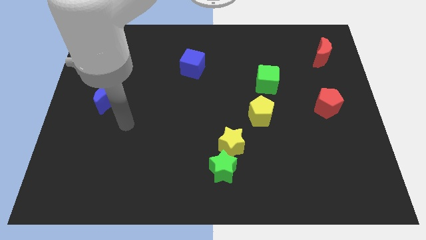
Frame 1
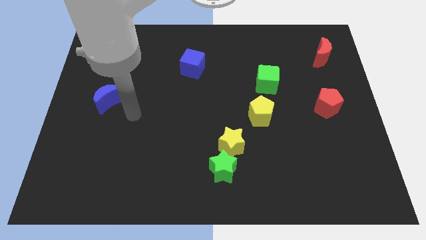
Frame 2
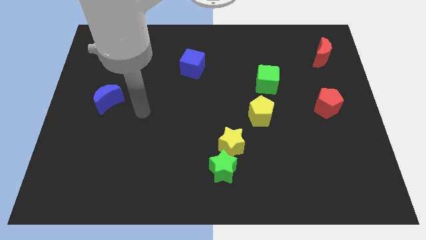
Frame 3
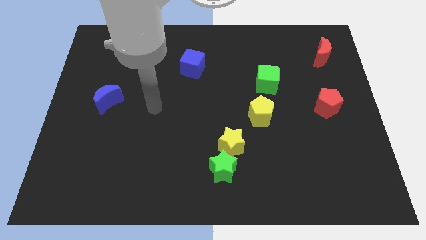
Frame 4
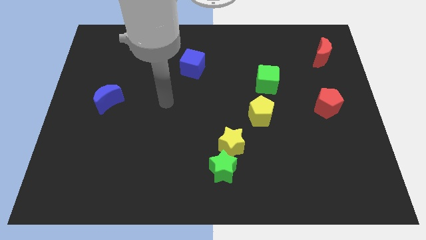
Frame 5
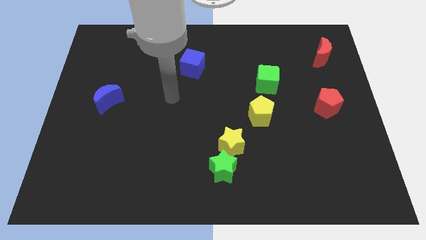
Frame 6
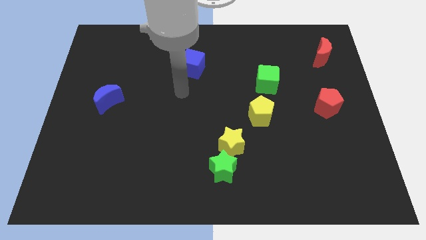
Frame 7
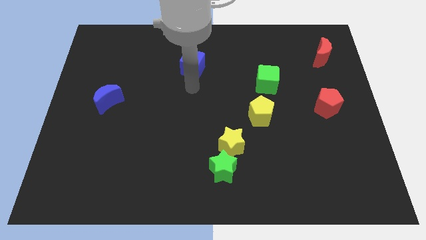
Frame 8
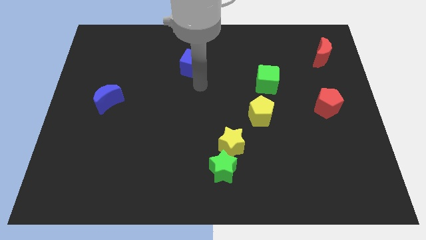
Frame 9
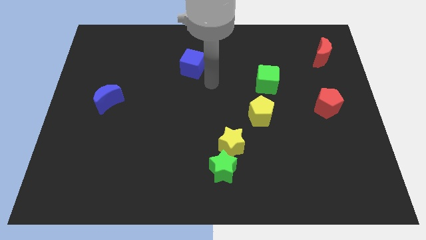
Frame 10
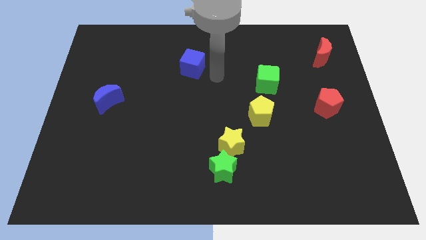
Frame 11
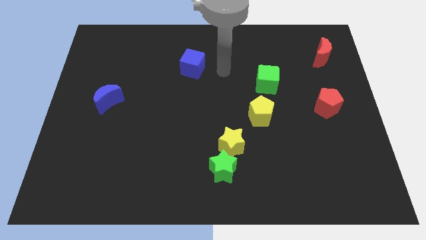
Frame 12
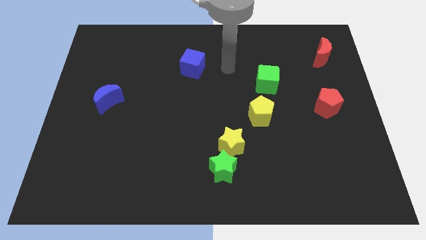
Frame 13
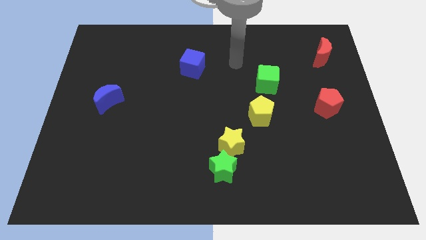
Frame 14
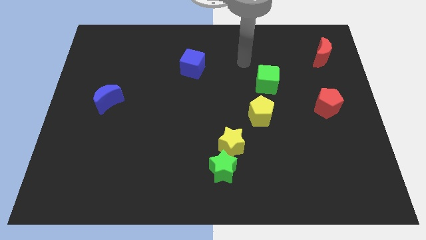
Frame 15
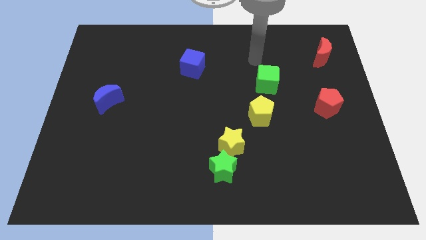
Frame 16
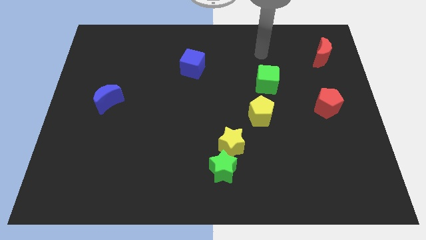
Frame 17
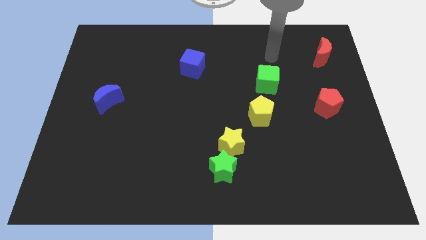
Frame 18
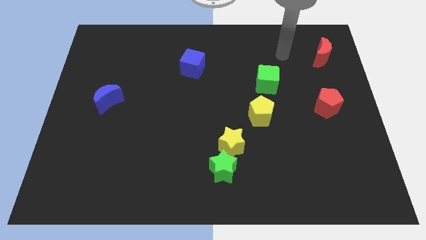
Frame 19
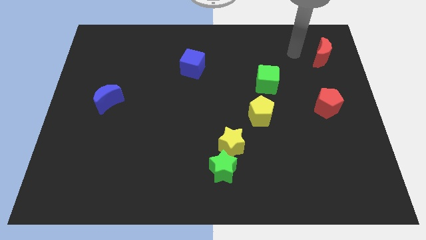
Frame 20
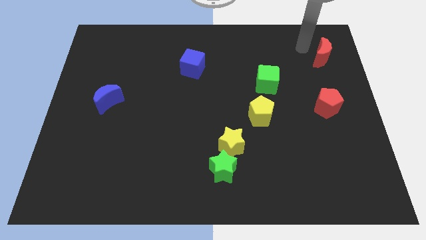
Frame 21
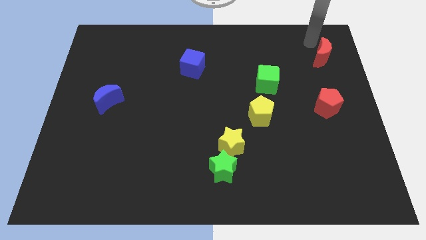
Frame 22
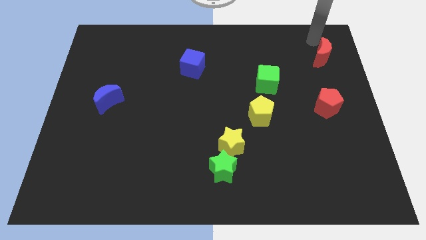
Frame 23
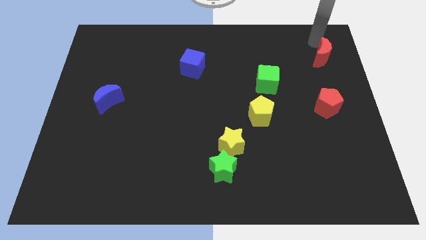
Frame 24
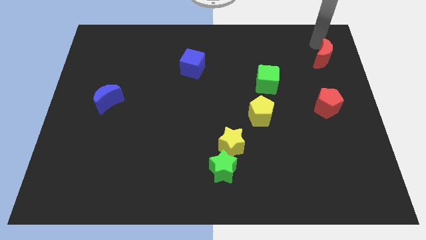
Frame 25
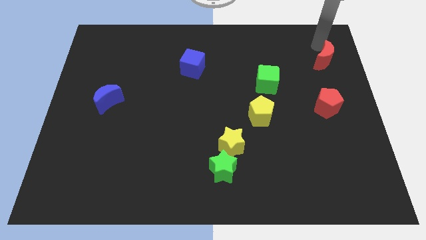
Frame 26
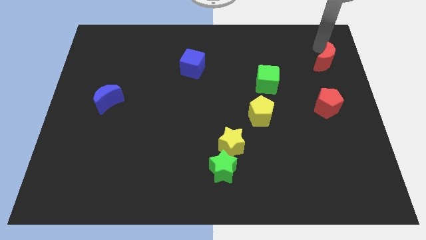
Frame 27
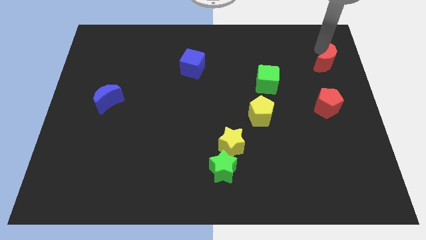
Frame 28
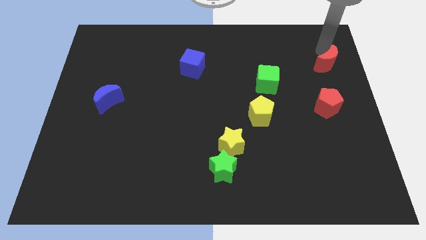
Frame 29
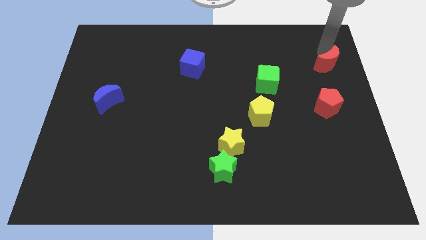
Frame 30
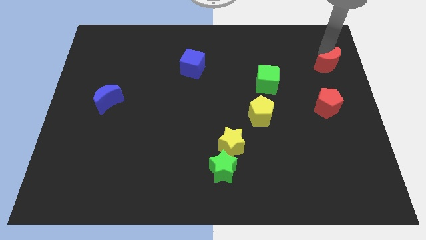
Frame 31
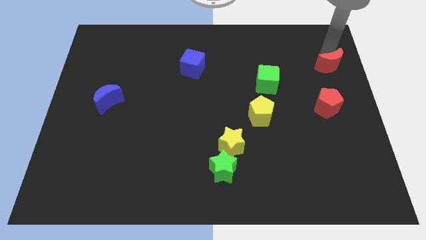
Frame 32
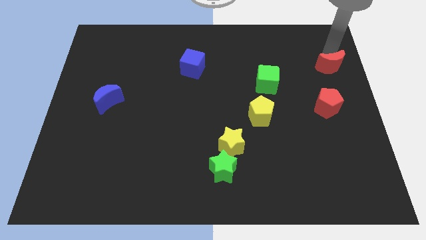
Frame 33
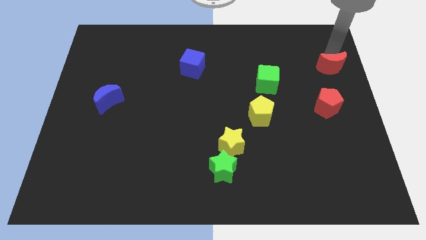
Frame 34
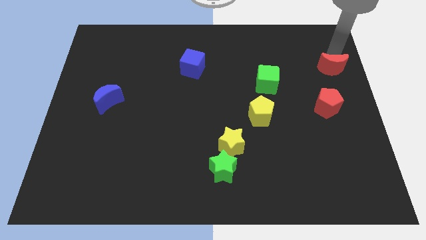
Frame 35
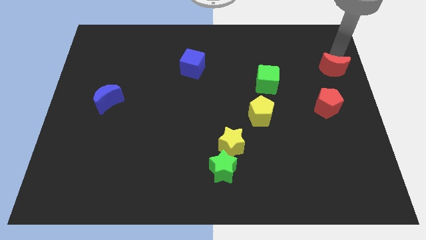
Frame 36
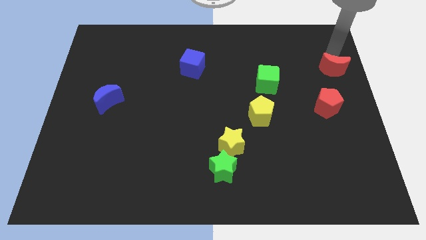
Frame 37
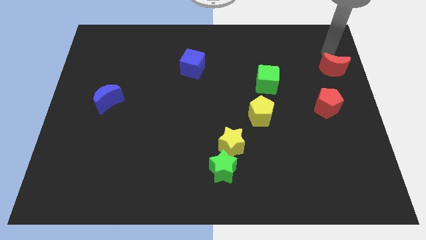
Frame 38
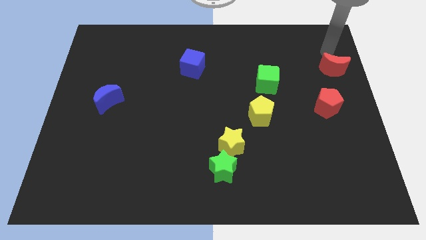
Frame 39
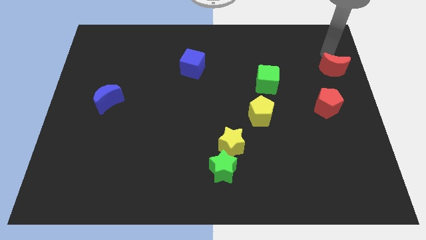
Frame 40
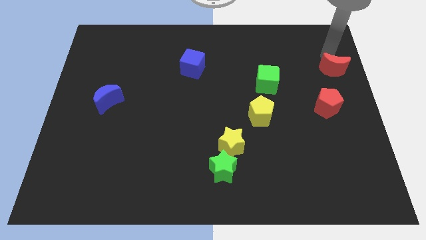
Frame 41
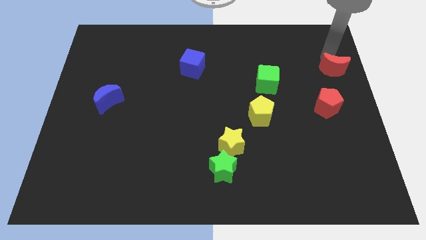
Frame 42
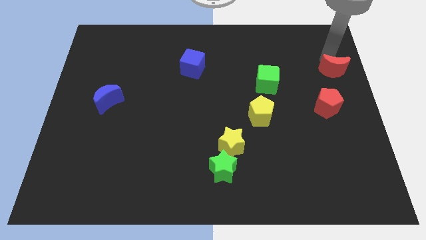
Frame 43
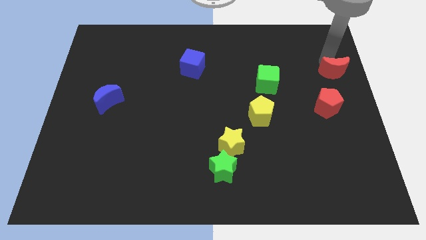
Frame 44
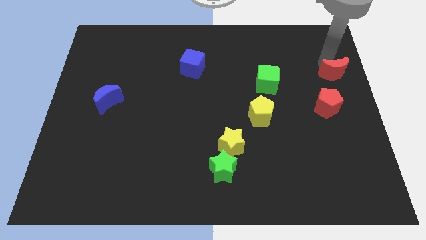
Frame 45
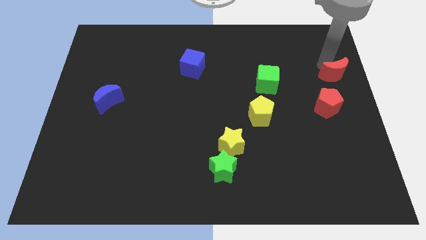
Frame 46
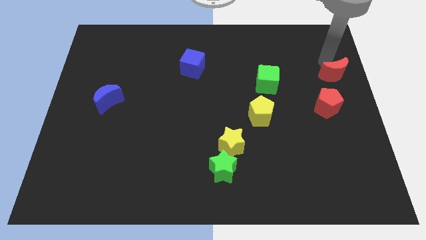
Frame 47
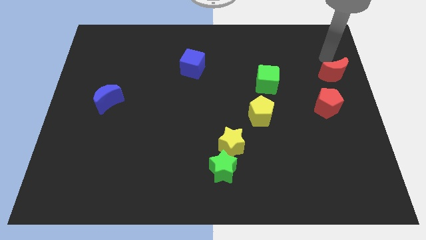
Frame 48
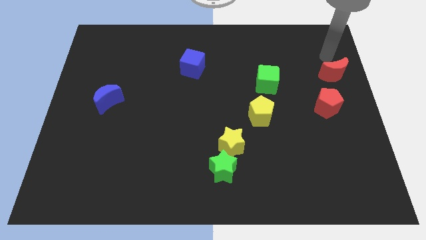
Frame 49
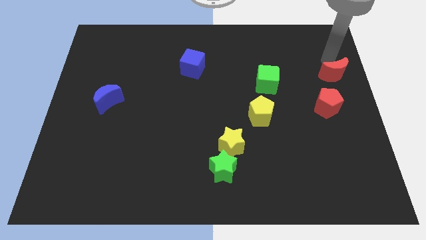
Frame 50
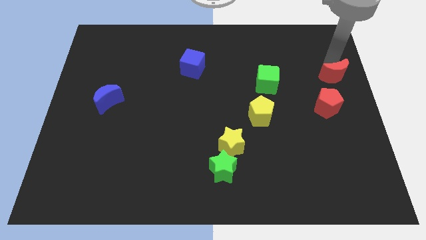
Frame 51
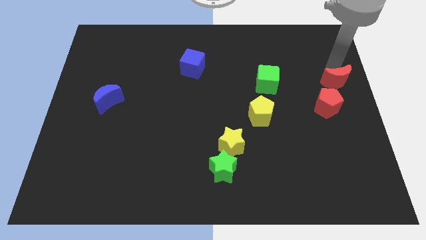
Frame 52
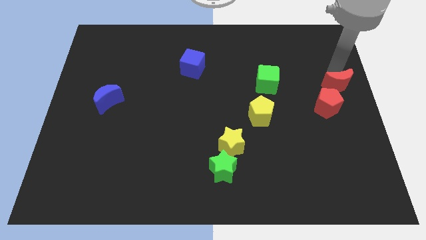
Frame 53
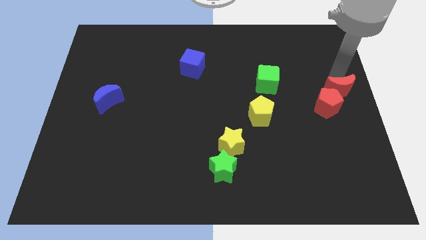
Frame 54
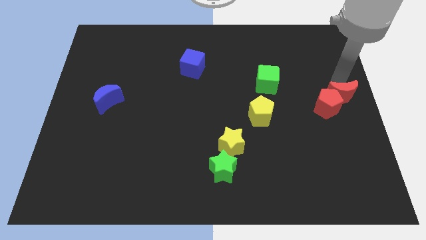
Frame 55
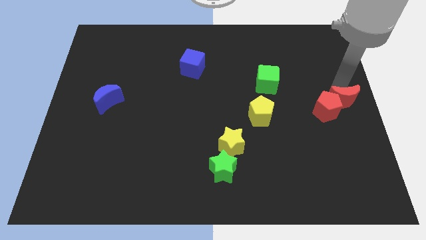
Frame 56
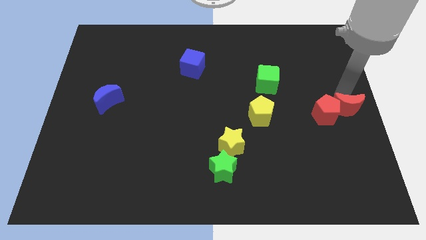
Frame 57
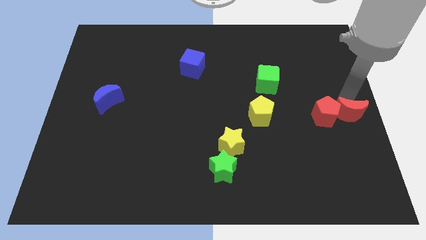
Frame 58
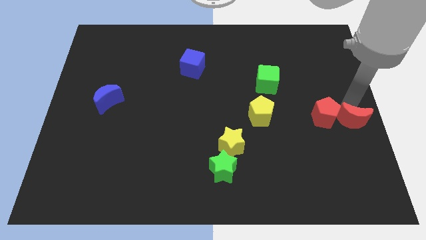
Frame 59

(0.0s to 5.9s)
push the red moon down

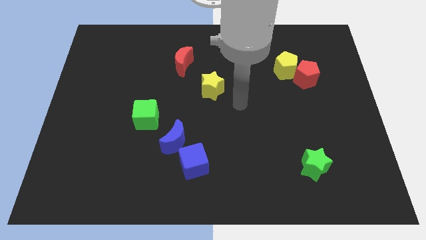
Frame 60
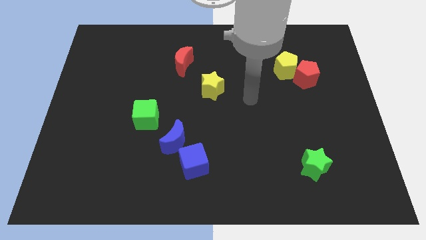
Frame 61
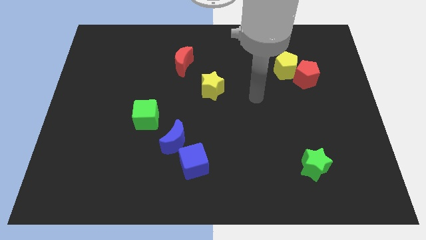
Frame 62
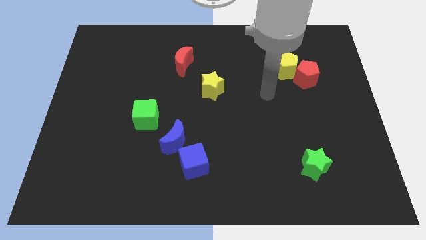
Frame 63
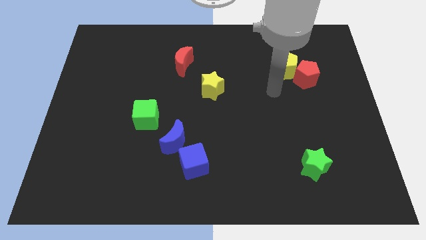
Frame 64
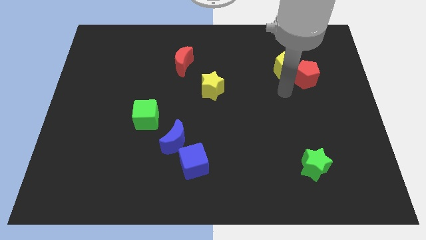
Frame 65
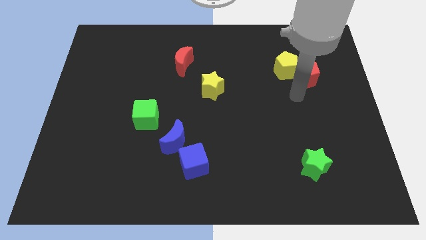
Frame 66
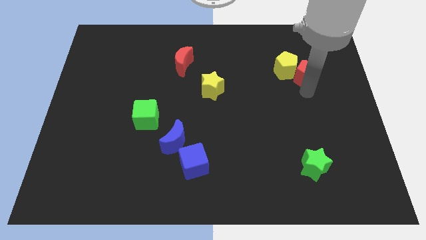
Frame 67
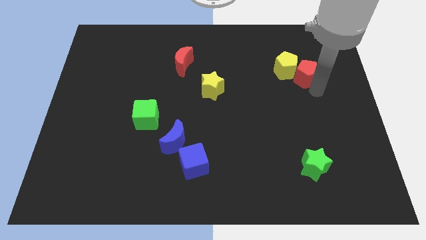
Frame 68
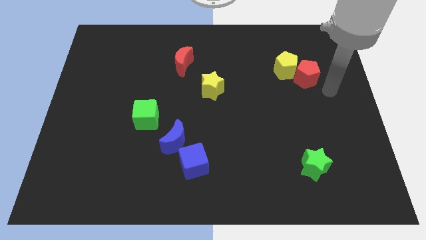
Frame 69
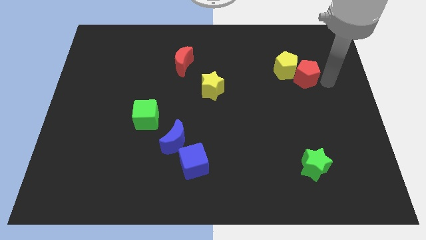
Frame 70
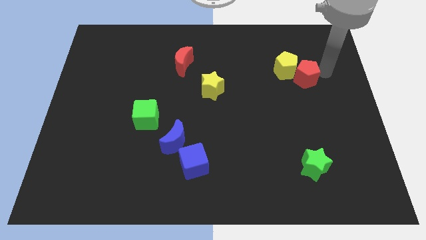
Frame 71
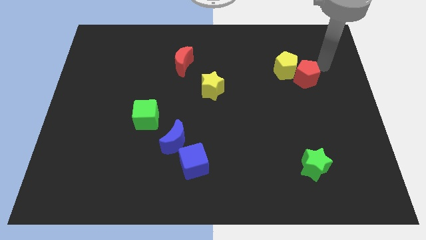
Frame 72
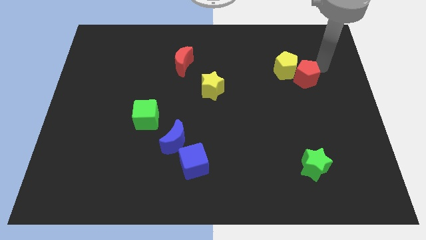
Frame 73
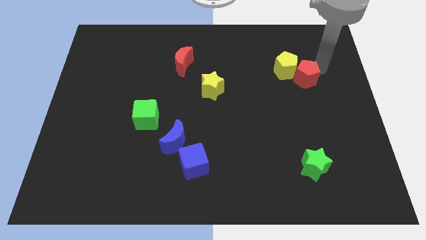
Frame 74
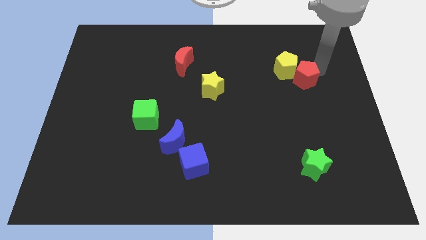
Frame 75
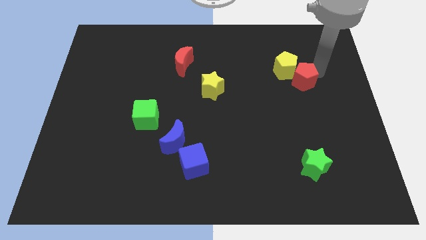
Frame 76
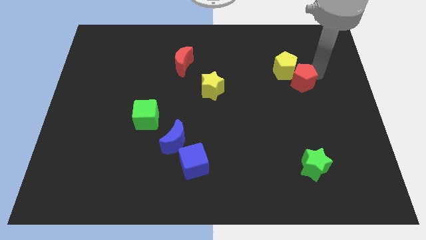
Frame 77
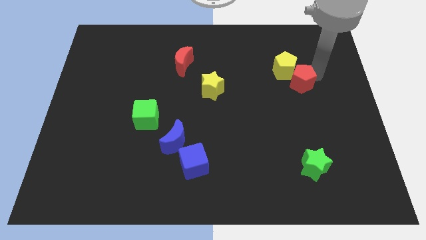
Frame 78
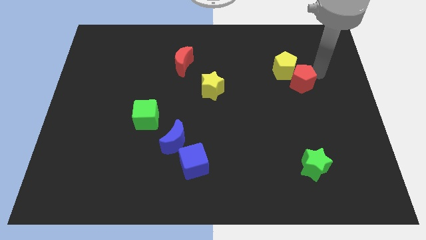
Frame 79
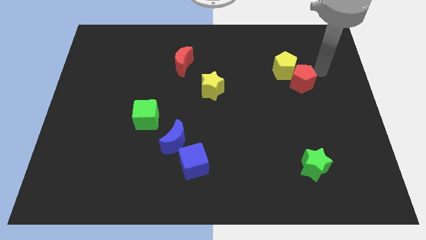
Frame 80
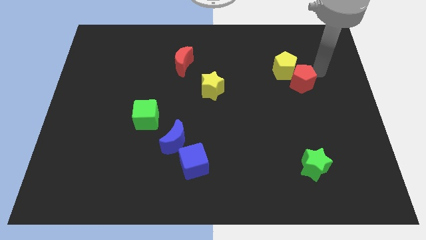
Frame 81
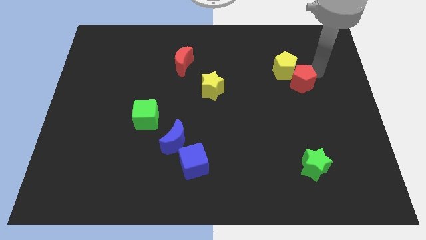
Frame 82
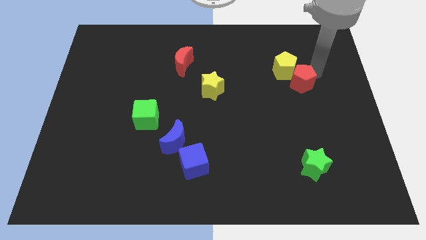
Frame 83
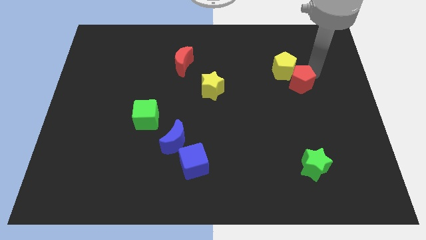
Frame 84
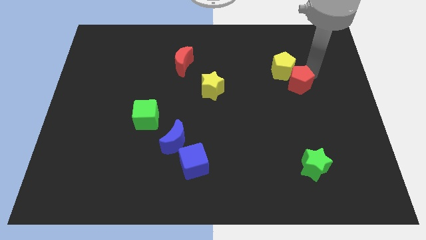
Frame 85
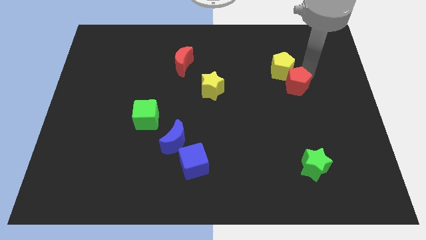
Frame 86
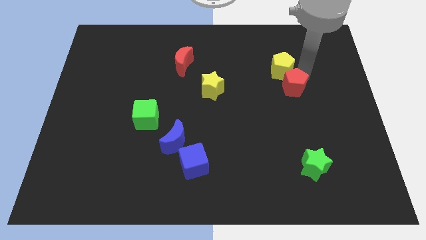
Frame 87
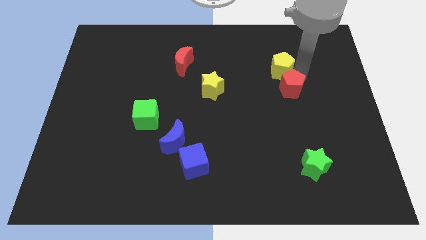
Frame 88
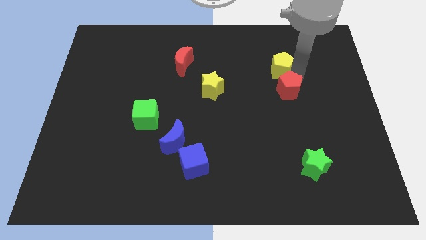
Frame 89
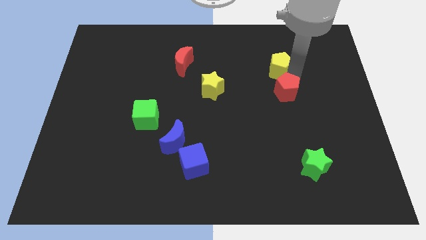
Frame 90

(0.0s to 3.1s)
slightly move the red pentagon down and to the left diagonally
